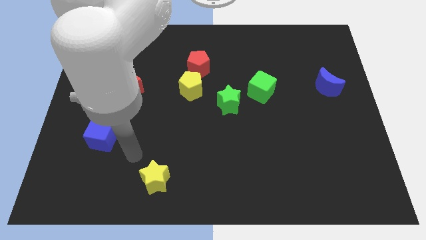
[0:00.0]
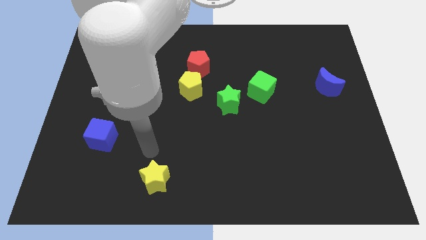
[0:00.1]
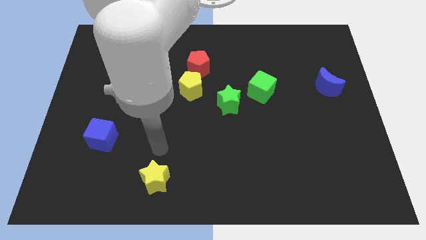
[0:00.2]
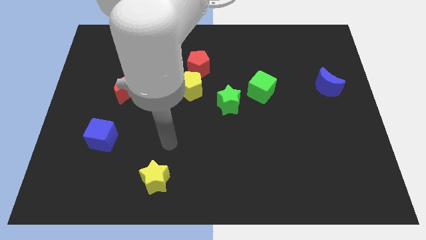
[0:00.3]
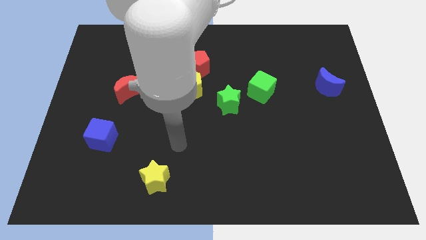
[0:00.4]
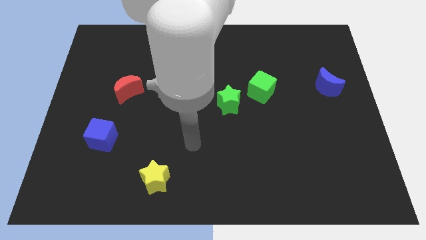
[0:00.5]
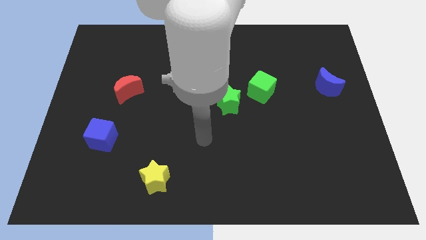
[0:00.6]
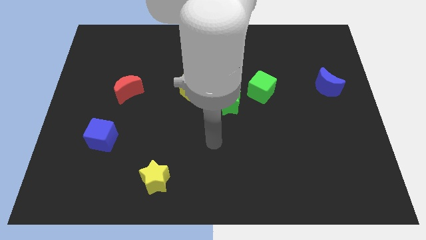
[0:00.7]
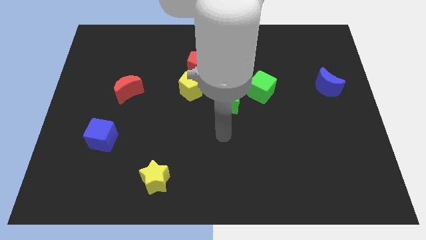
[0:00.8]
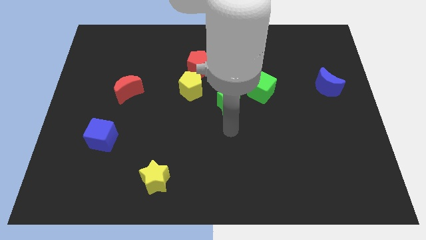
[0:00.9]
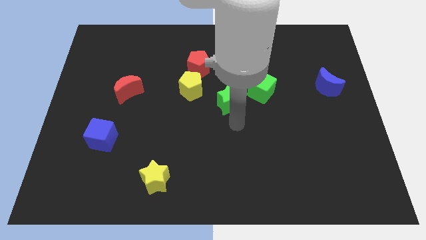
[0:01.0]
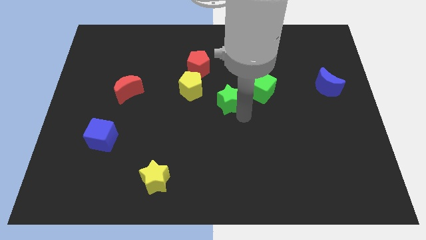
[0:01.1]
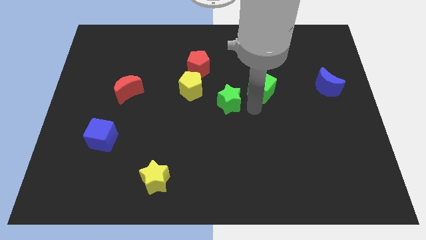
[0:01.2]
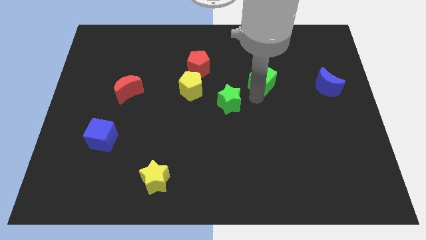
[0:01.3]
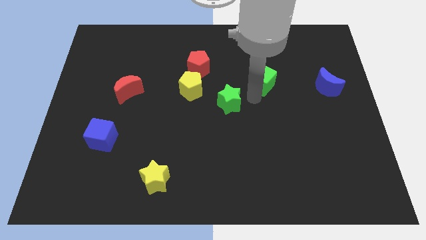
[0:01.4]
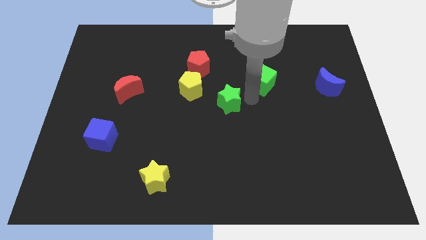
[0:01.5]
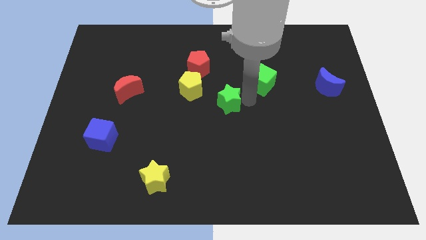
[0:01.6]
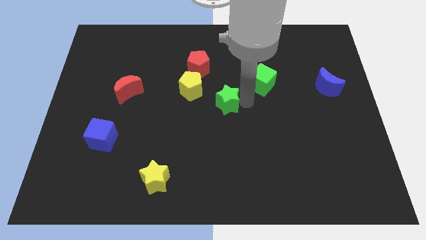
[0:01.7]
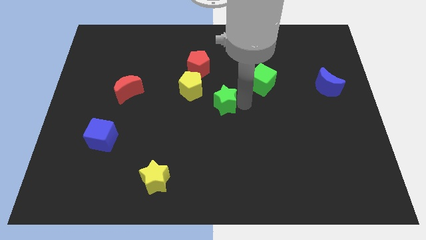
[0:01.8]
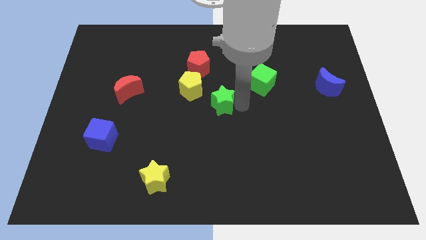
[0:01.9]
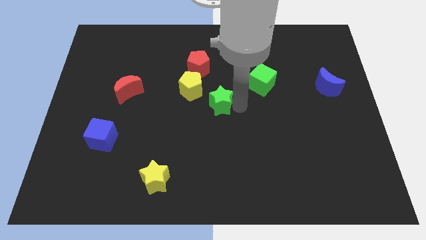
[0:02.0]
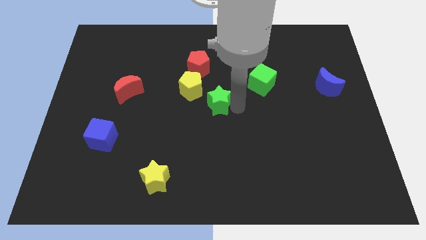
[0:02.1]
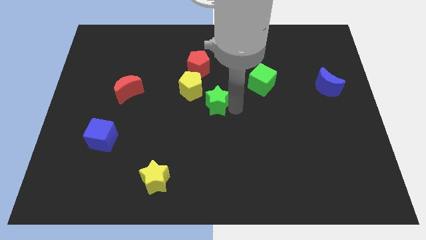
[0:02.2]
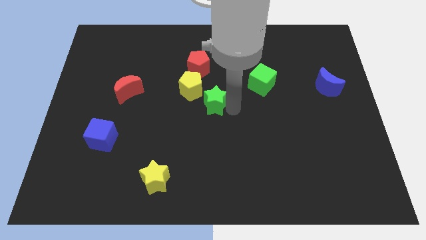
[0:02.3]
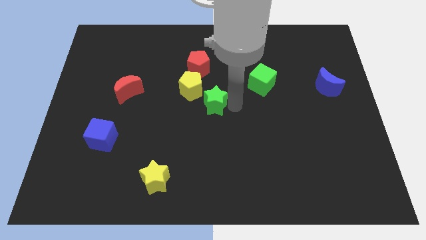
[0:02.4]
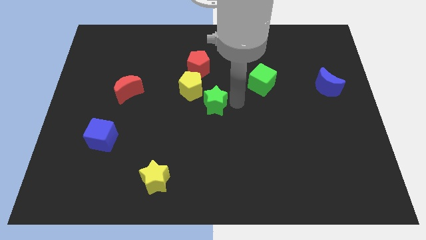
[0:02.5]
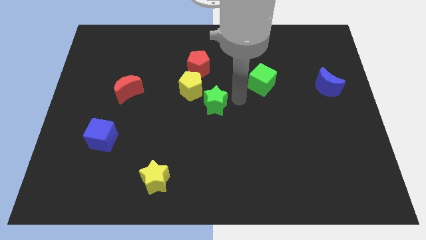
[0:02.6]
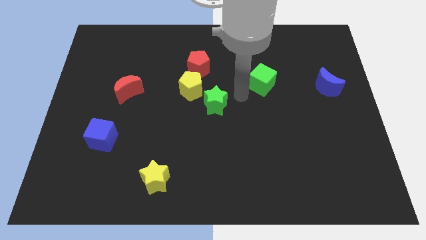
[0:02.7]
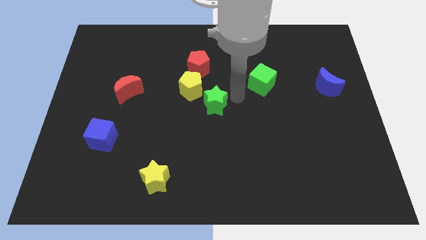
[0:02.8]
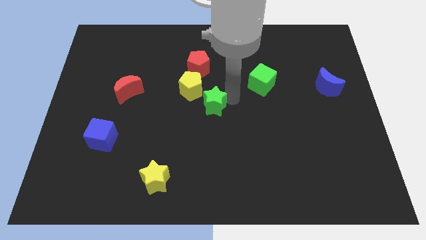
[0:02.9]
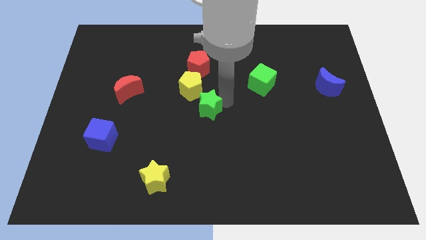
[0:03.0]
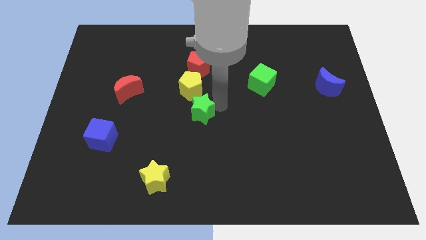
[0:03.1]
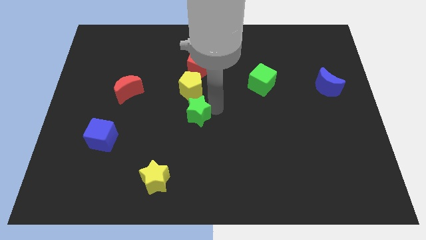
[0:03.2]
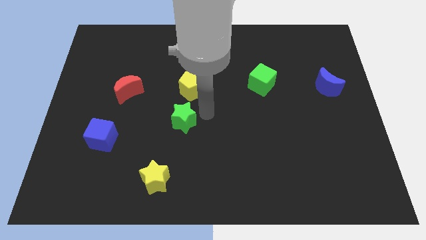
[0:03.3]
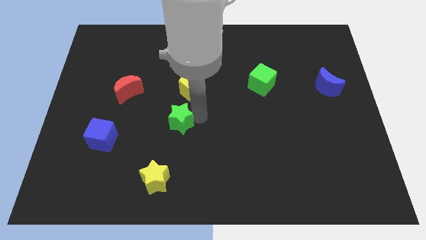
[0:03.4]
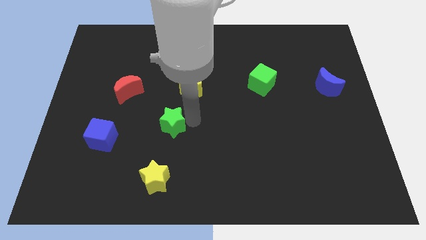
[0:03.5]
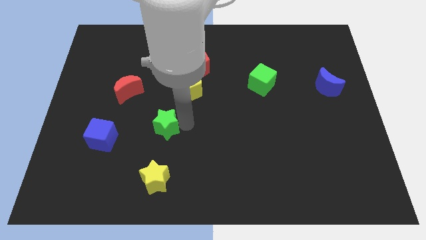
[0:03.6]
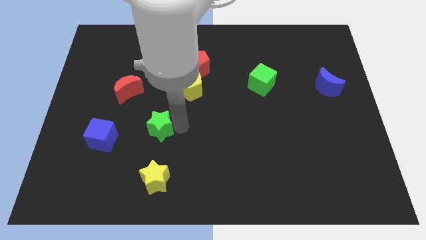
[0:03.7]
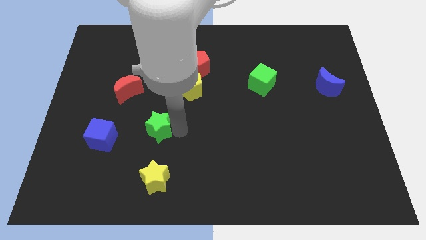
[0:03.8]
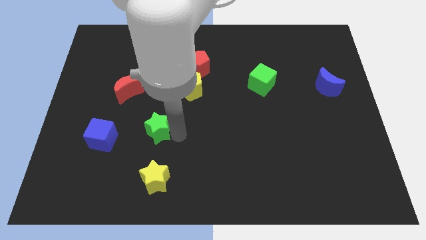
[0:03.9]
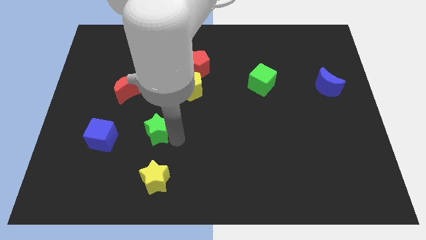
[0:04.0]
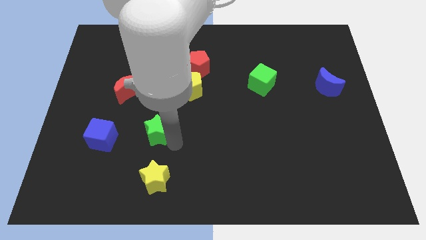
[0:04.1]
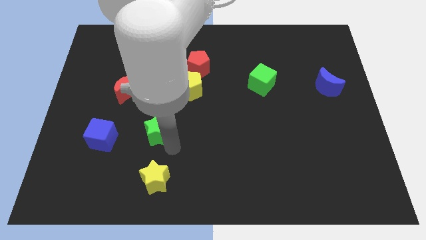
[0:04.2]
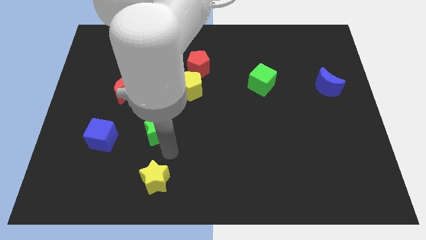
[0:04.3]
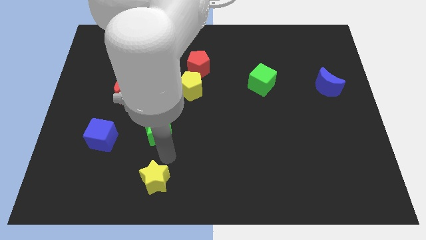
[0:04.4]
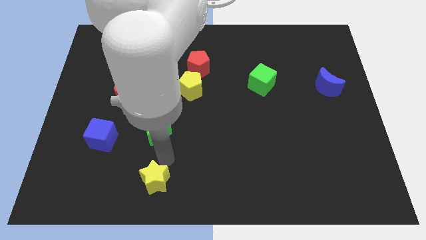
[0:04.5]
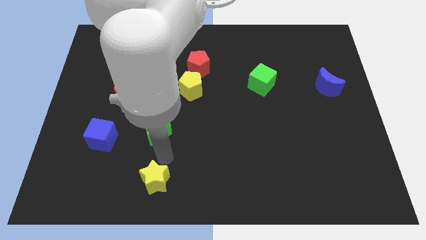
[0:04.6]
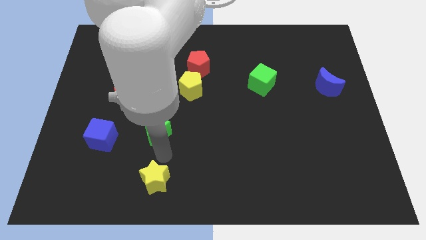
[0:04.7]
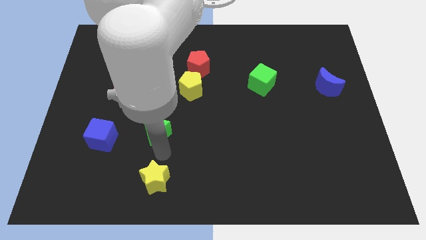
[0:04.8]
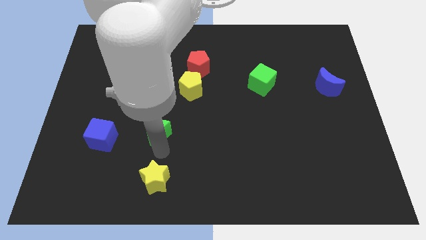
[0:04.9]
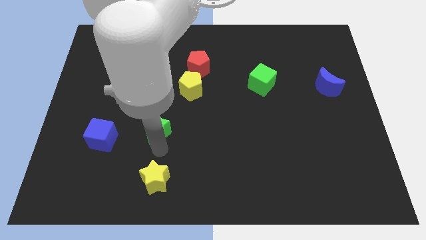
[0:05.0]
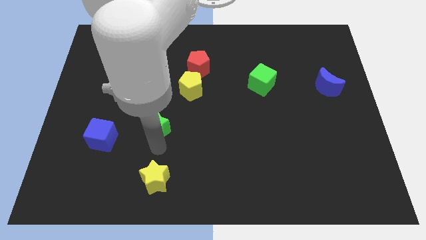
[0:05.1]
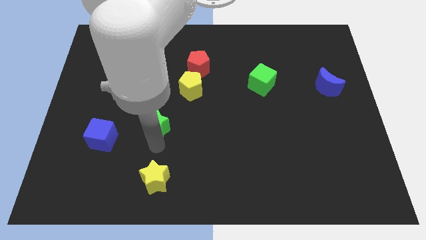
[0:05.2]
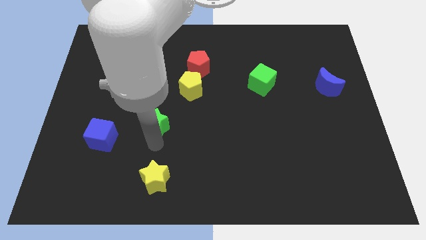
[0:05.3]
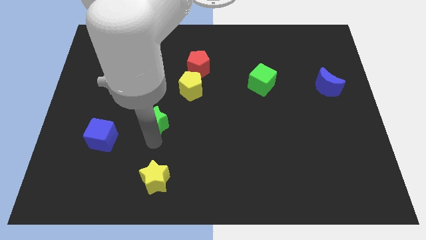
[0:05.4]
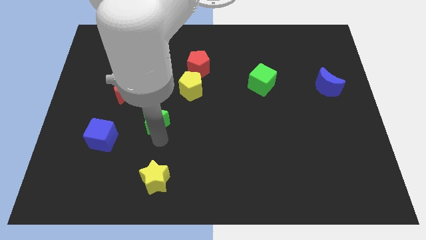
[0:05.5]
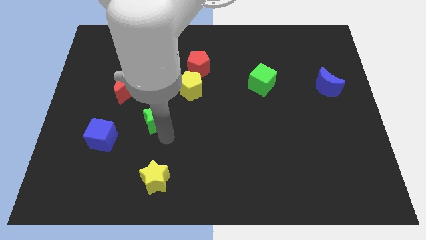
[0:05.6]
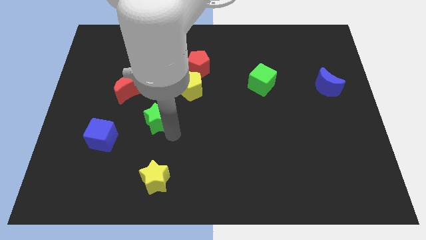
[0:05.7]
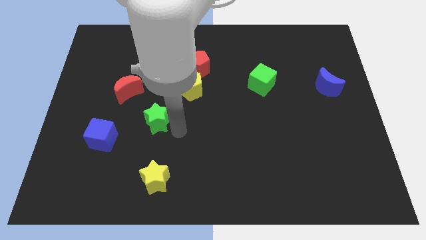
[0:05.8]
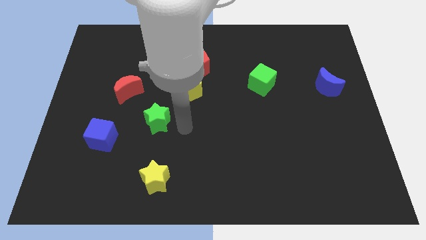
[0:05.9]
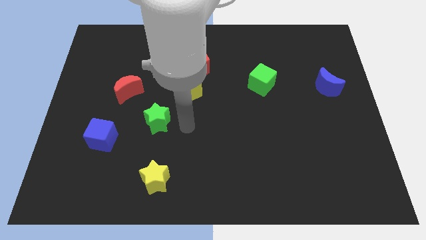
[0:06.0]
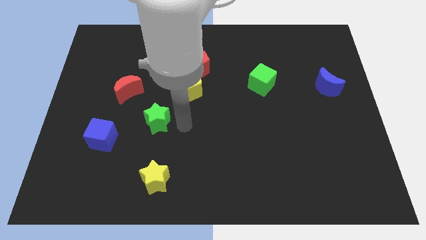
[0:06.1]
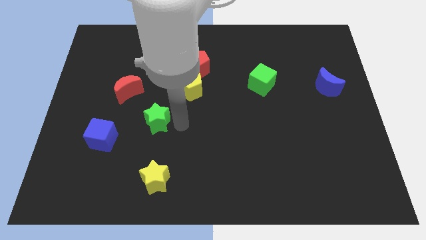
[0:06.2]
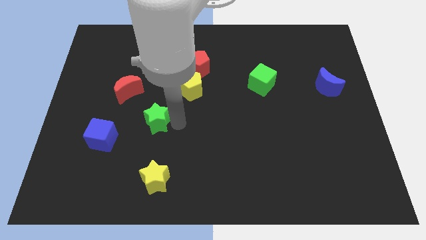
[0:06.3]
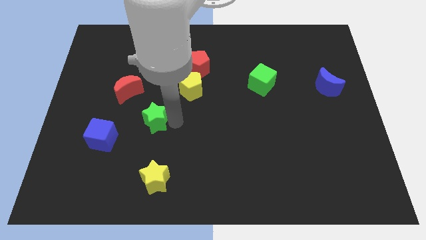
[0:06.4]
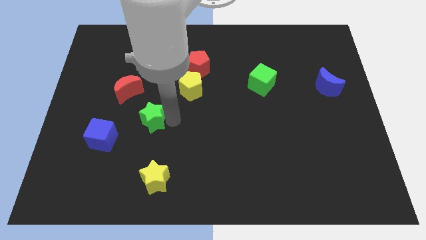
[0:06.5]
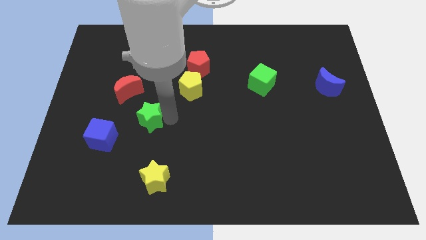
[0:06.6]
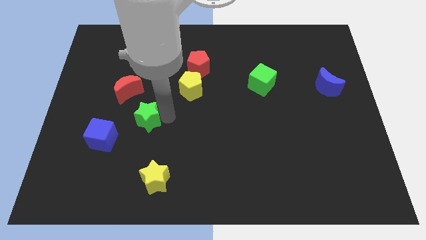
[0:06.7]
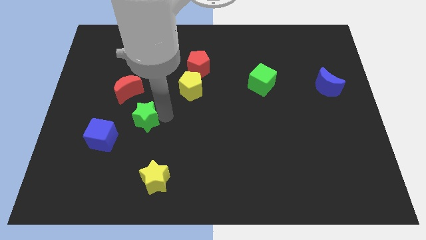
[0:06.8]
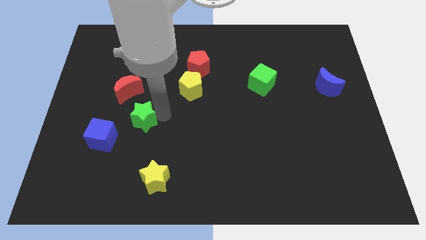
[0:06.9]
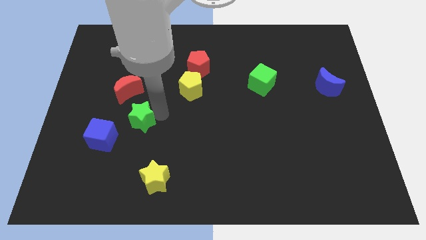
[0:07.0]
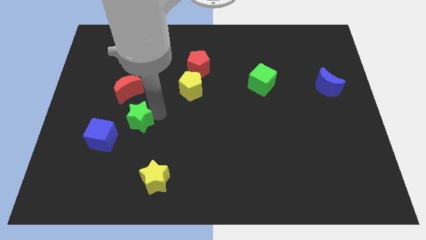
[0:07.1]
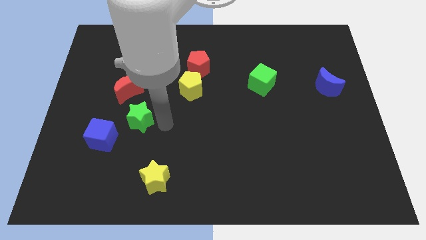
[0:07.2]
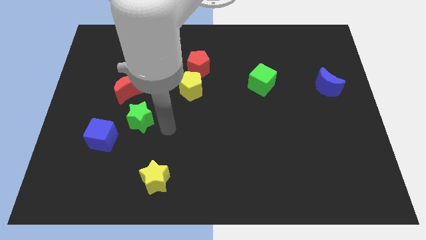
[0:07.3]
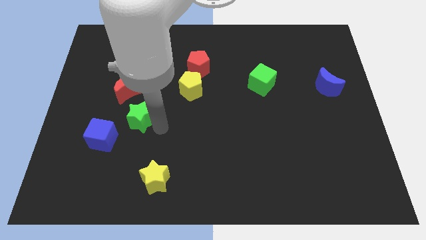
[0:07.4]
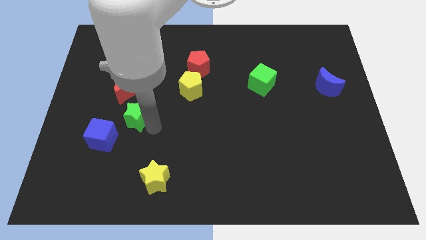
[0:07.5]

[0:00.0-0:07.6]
slide the green star left
